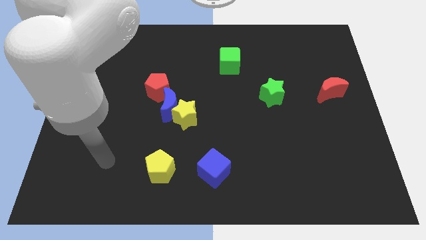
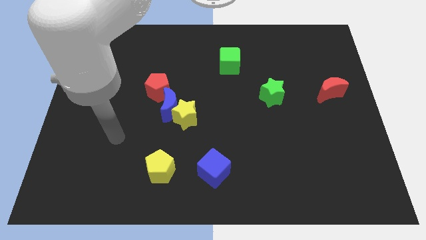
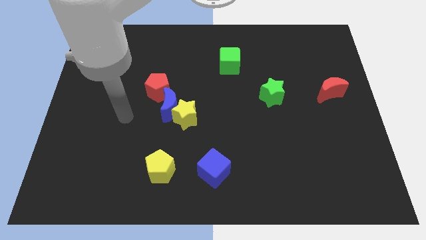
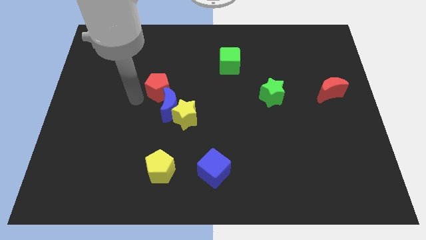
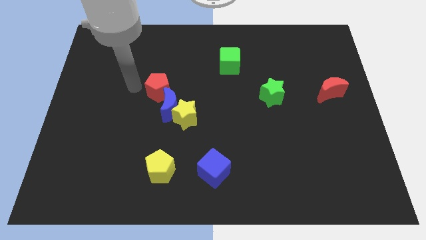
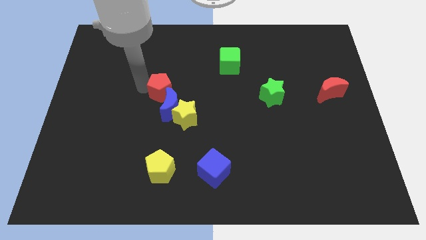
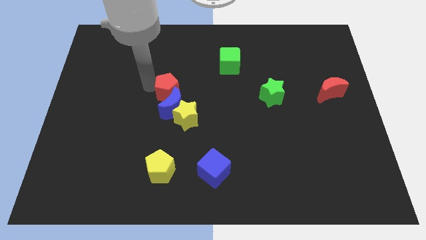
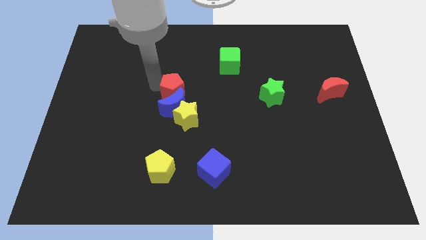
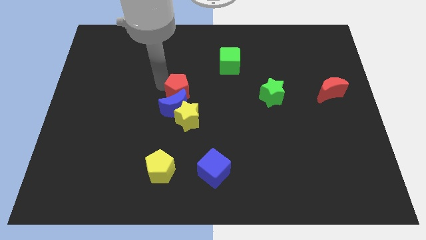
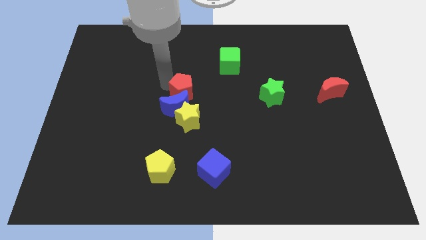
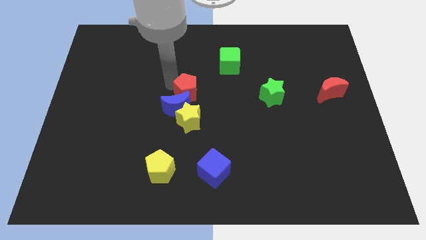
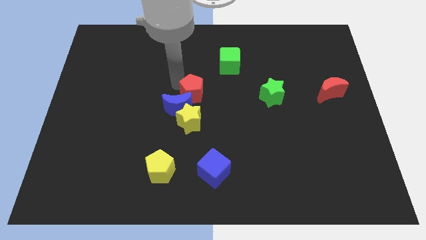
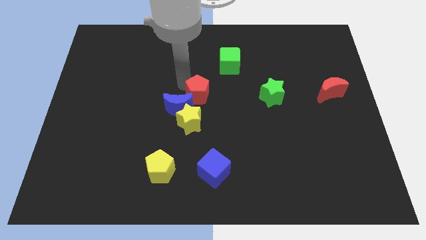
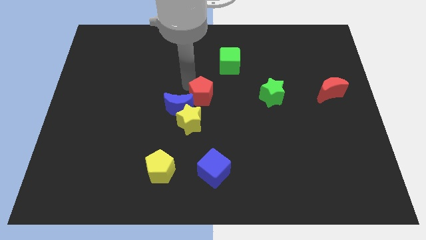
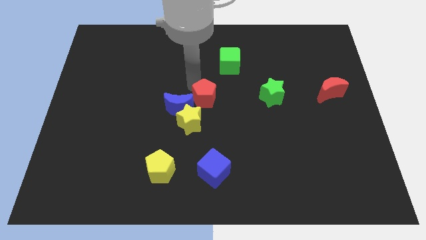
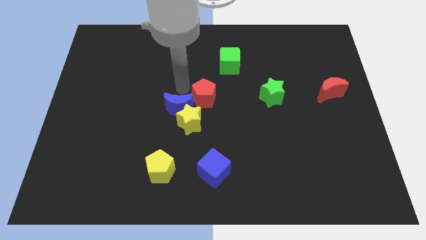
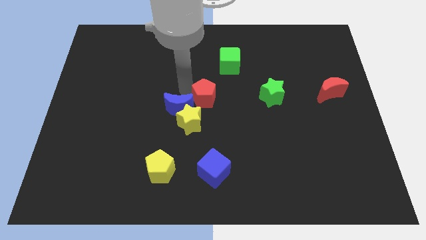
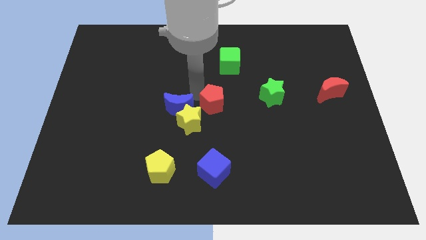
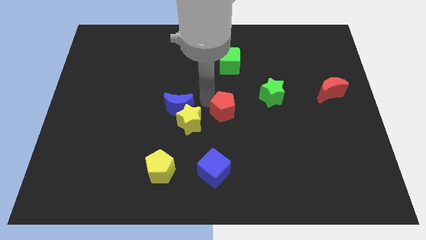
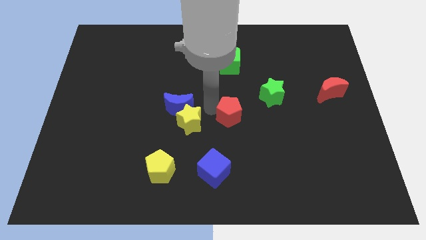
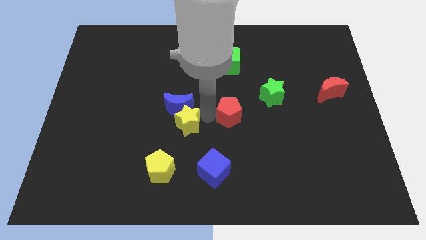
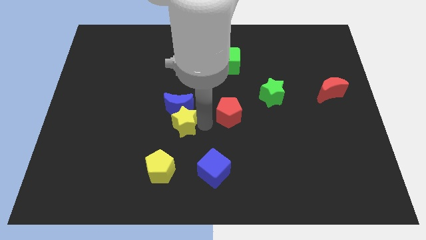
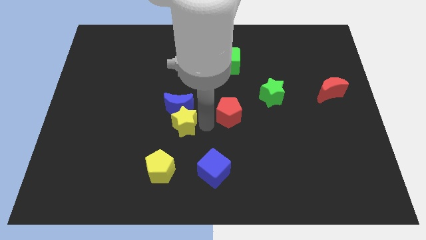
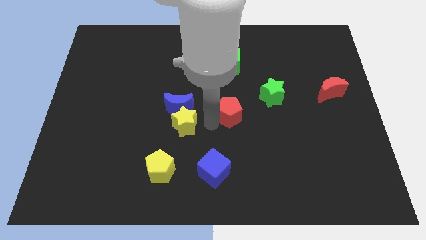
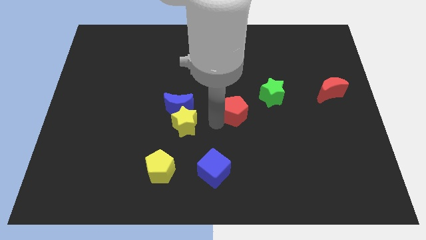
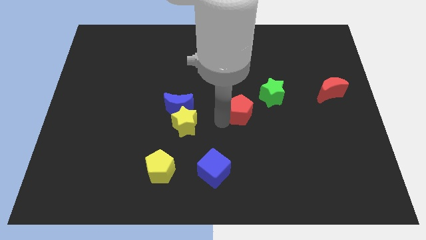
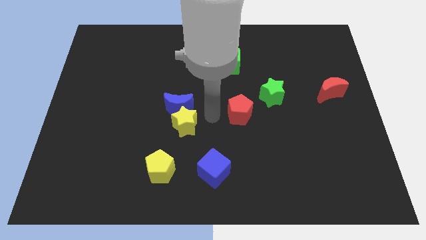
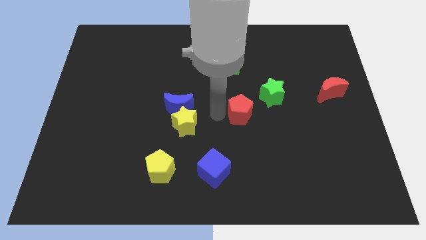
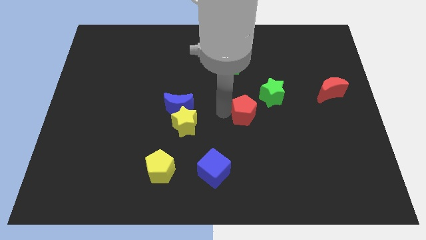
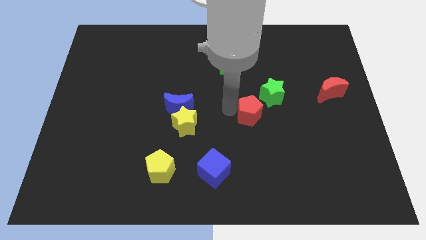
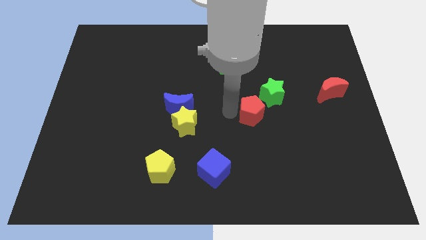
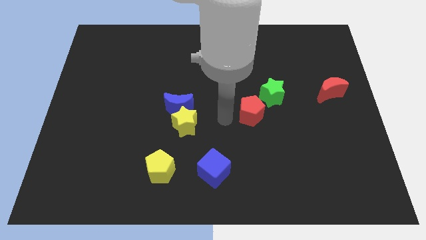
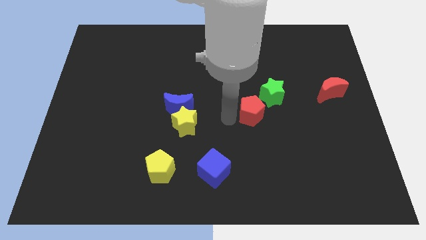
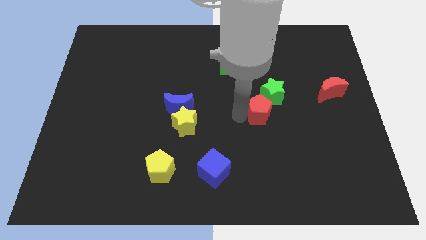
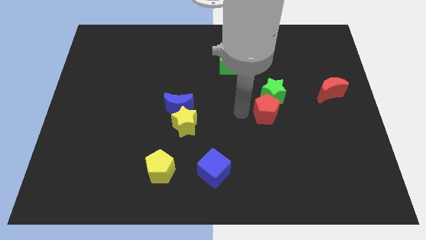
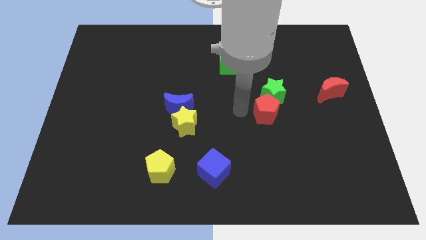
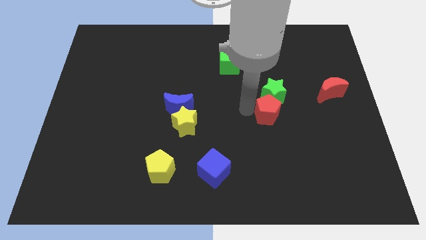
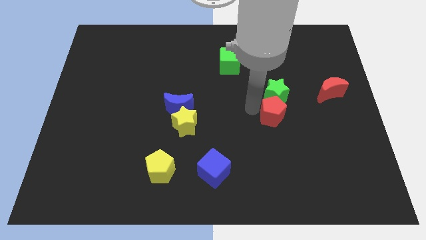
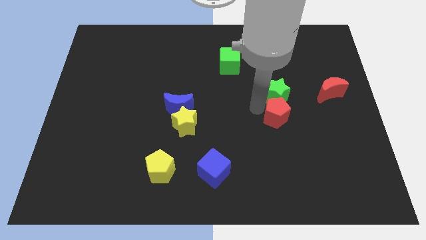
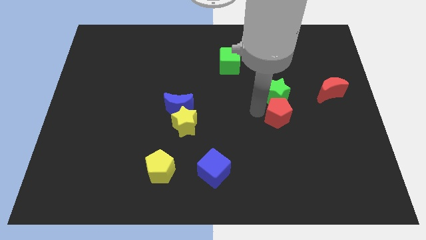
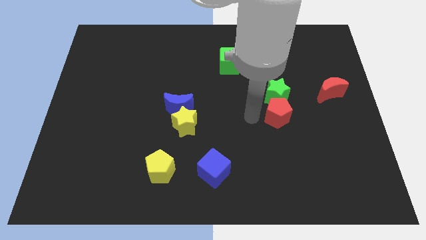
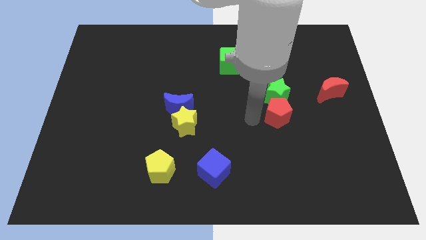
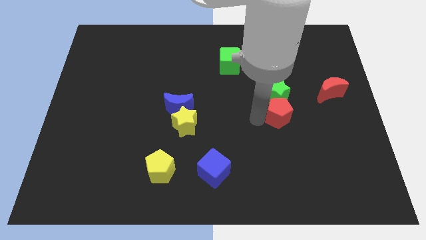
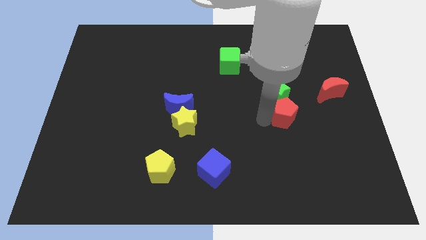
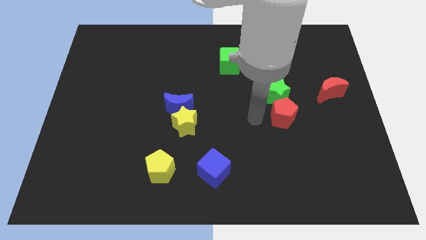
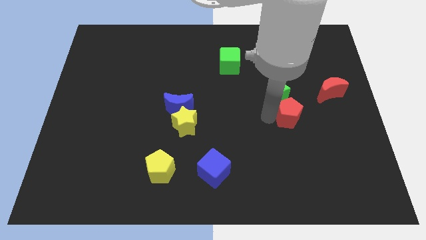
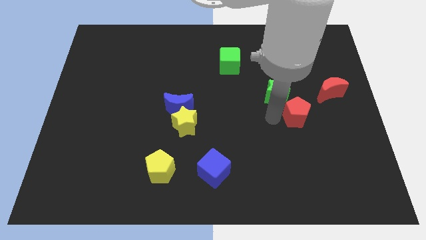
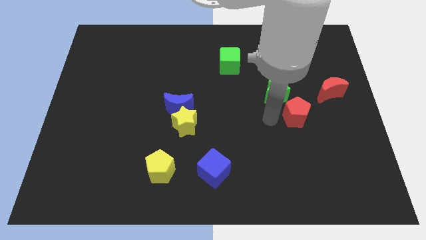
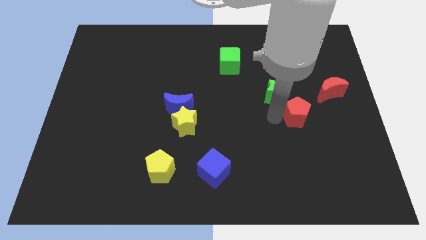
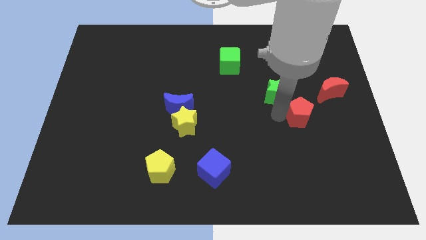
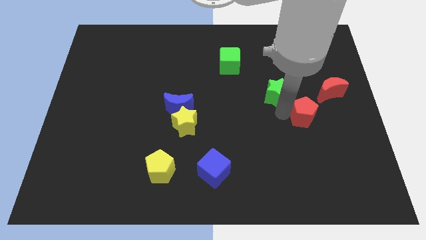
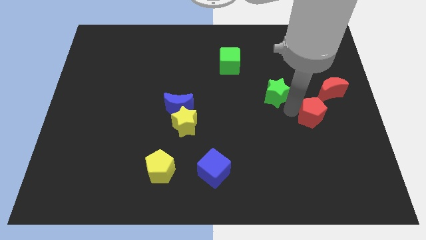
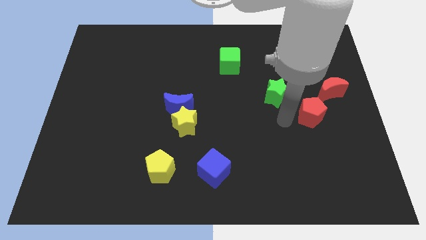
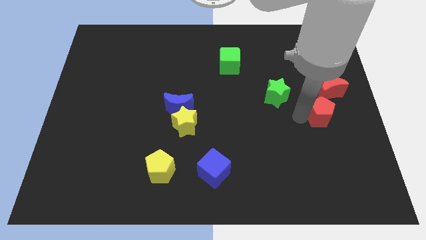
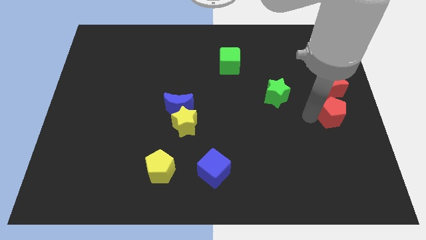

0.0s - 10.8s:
push the red pentagon to the center right

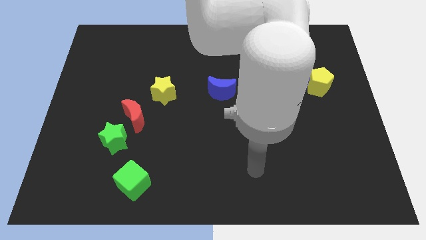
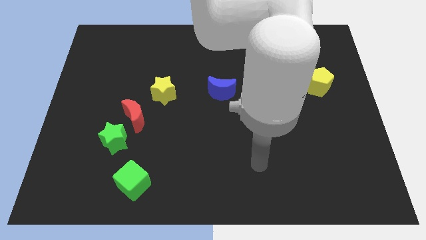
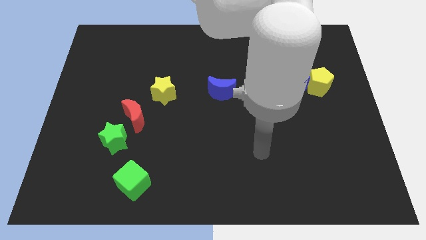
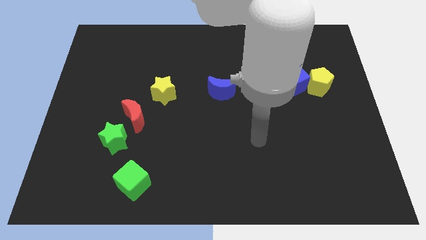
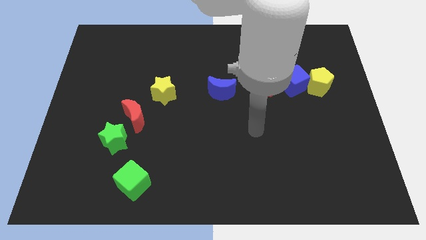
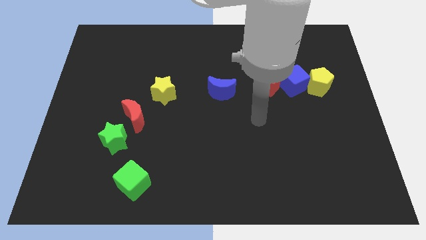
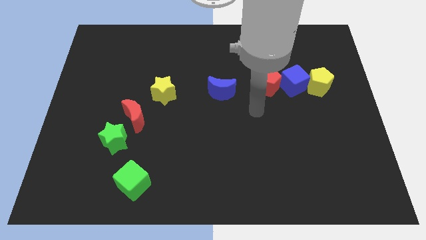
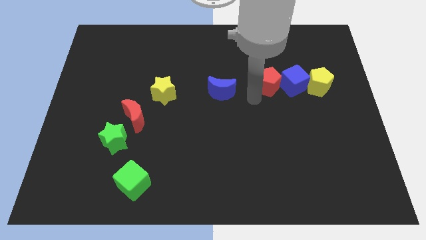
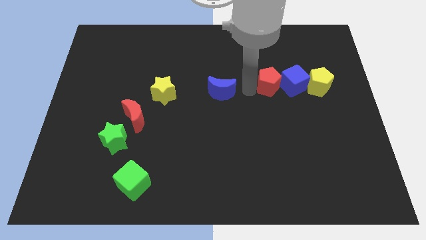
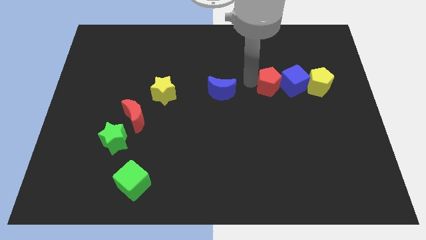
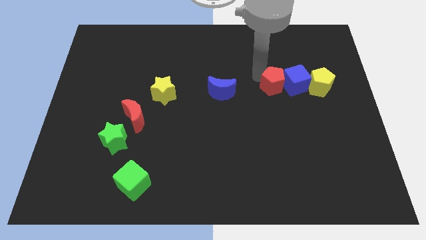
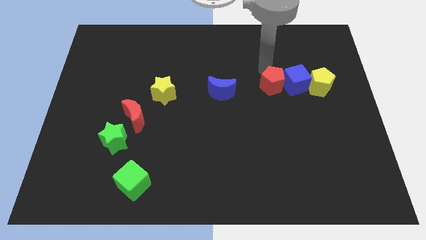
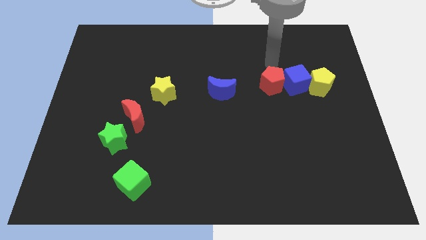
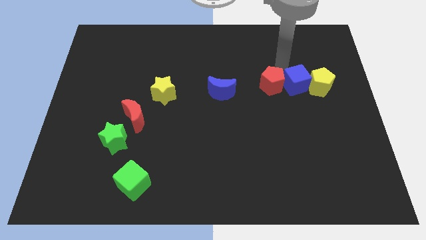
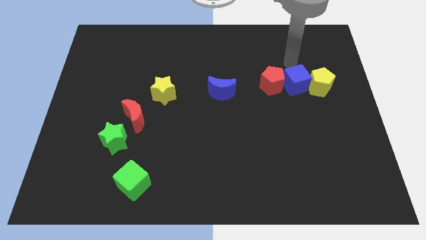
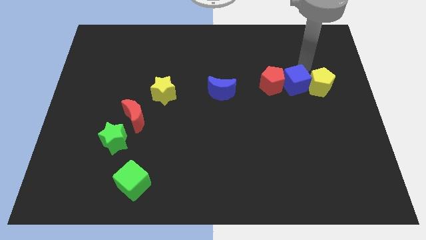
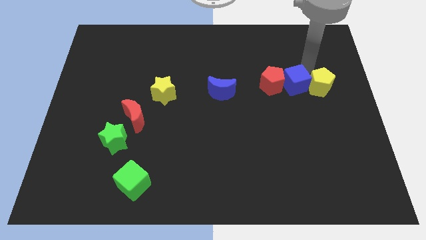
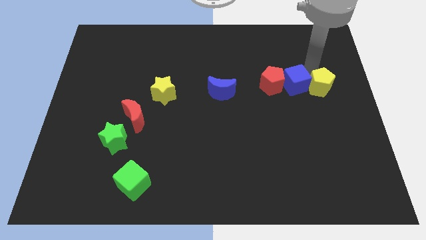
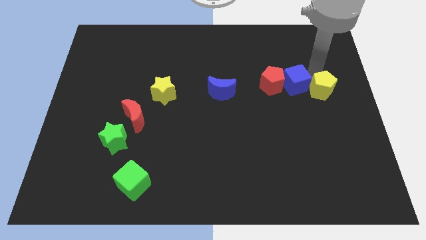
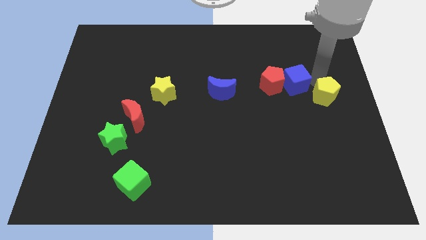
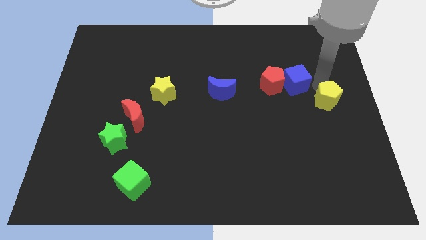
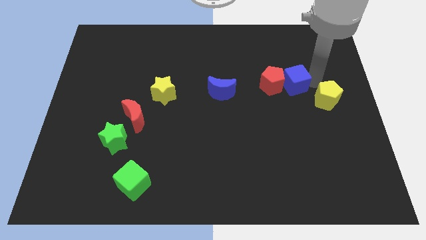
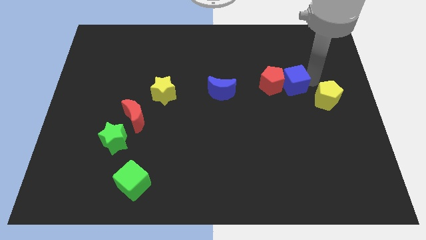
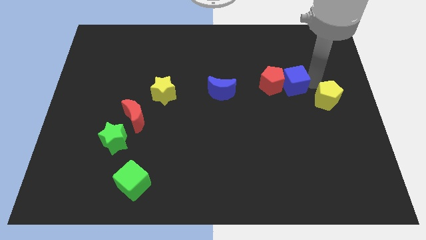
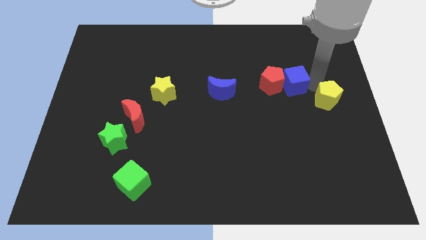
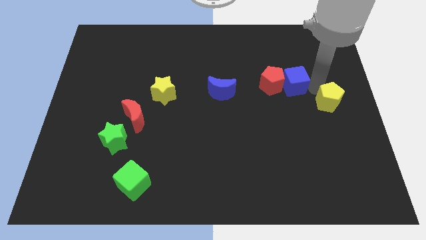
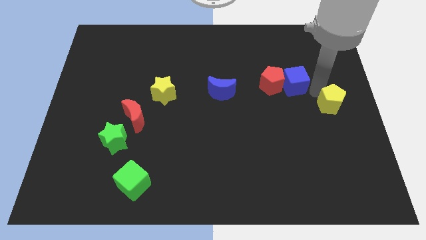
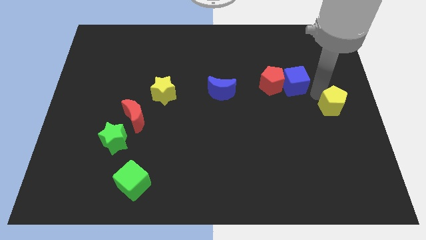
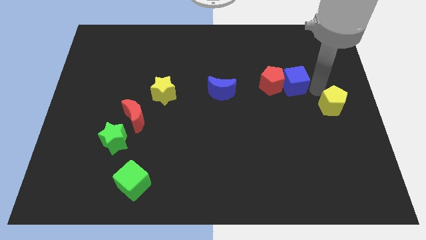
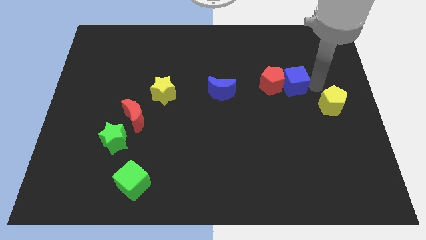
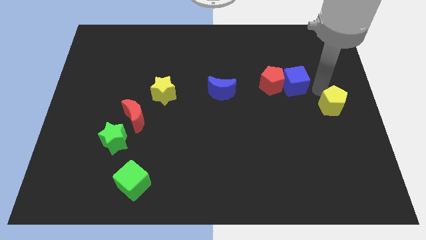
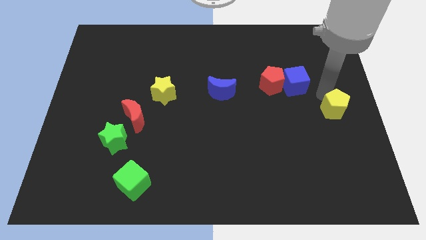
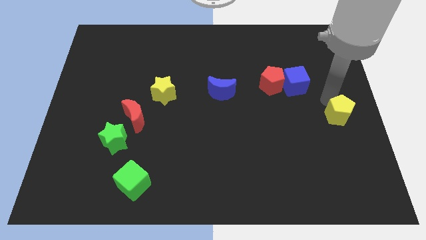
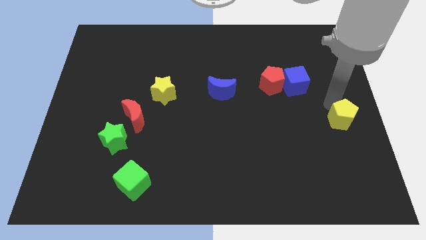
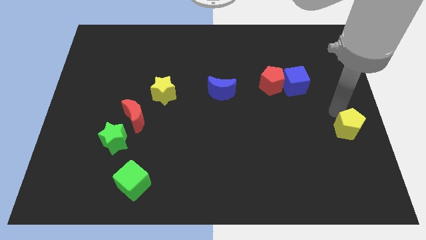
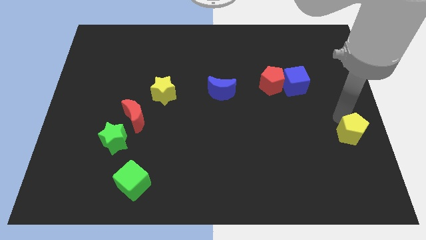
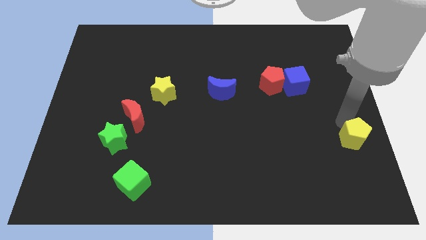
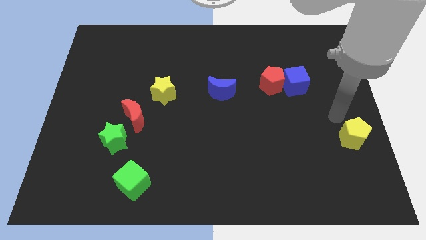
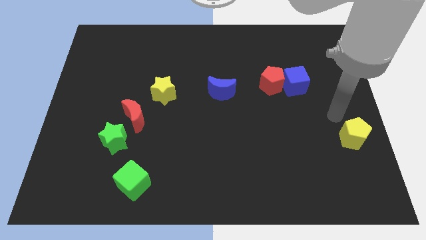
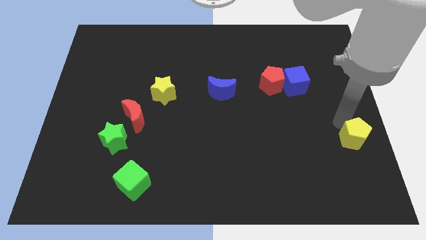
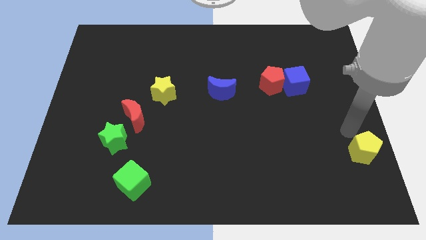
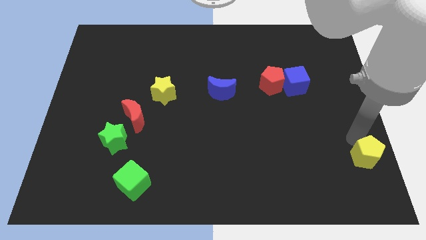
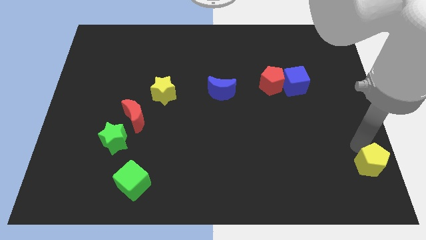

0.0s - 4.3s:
slide the yellow pentagon to the bottom right of the board
